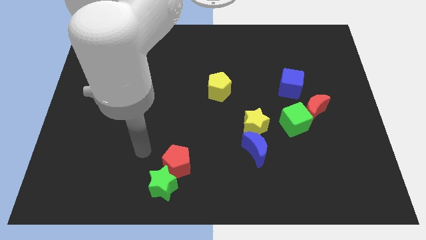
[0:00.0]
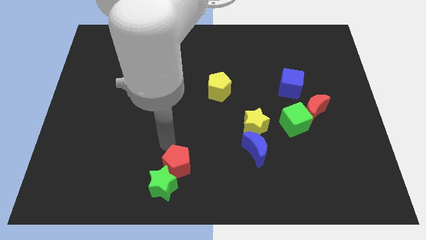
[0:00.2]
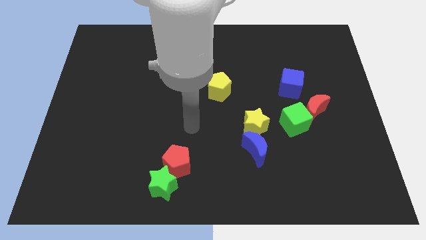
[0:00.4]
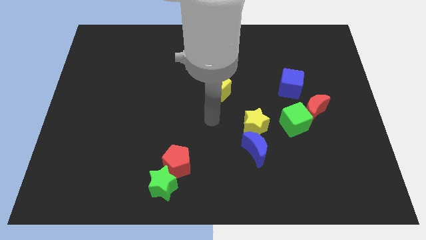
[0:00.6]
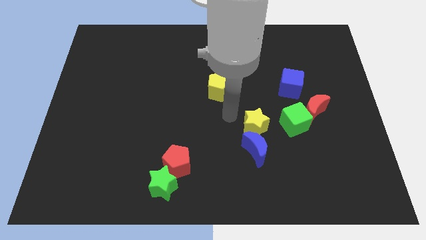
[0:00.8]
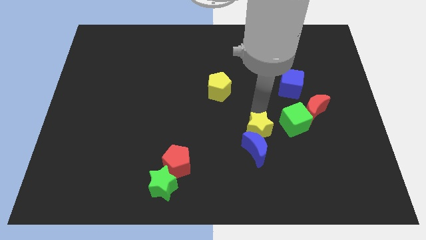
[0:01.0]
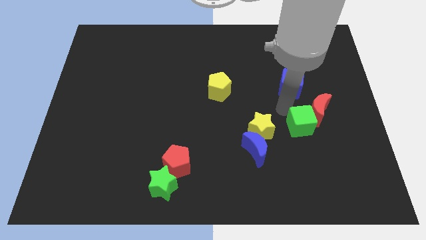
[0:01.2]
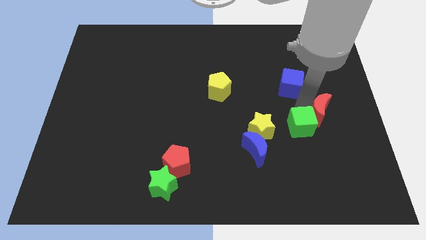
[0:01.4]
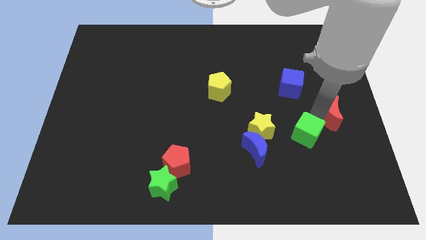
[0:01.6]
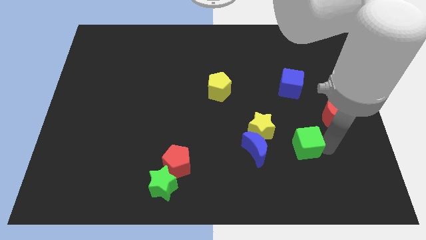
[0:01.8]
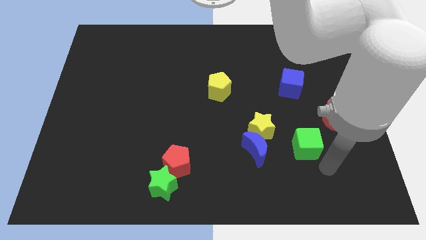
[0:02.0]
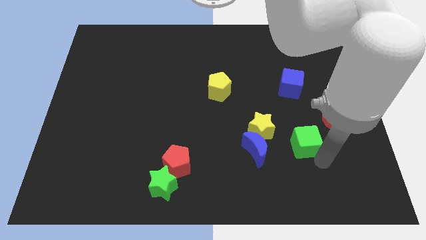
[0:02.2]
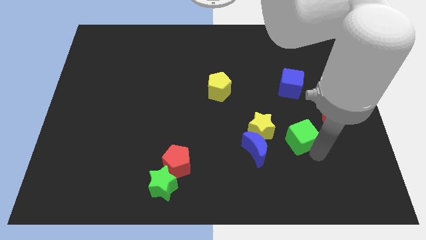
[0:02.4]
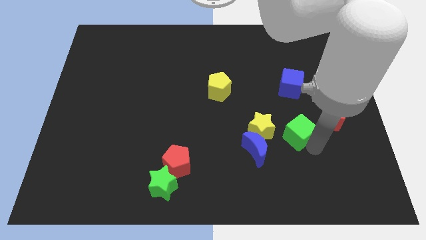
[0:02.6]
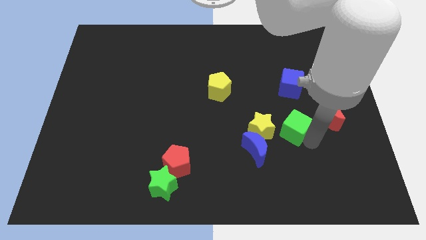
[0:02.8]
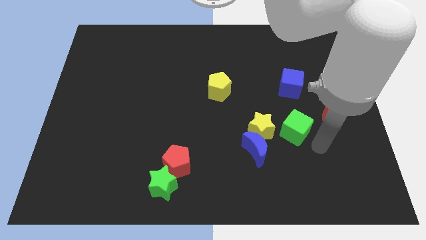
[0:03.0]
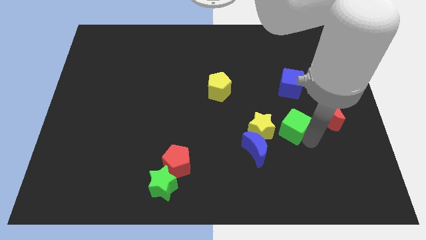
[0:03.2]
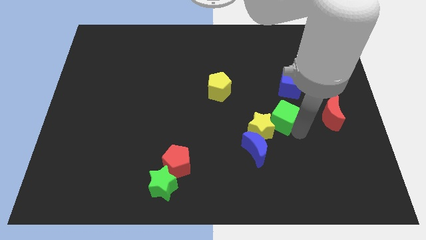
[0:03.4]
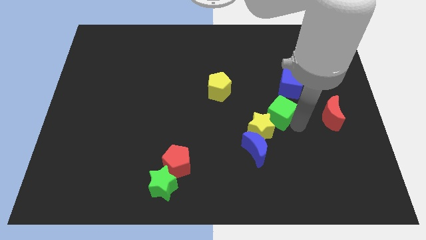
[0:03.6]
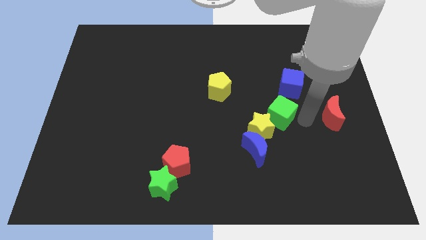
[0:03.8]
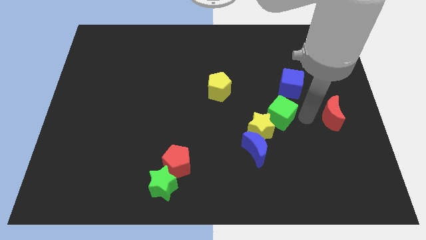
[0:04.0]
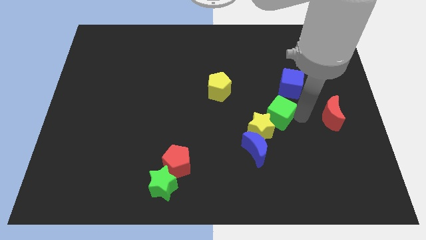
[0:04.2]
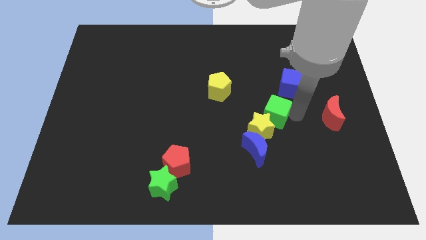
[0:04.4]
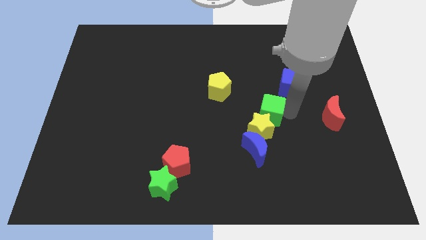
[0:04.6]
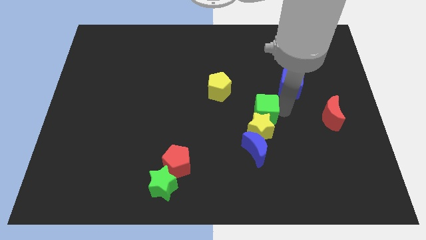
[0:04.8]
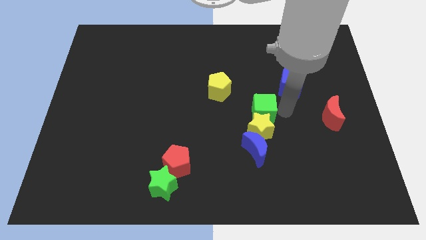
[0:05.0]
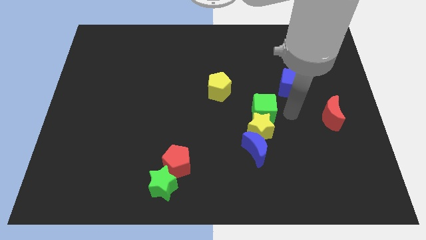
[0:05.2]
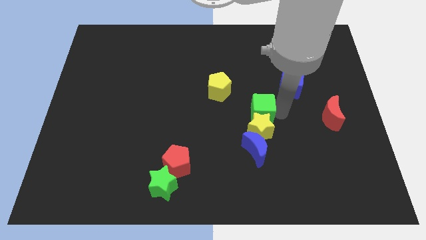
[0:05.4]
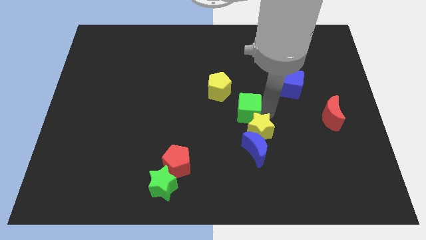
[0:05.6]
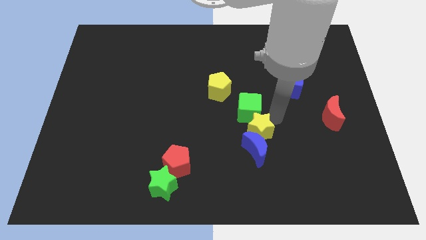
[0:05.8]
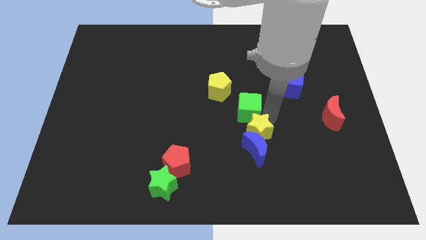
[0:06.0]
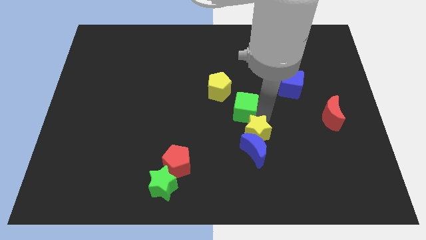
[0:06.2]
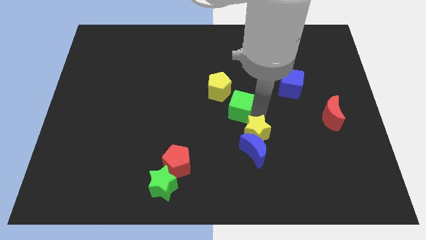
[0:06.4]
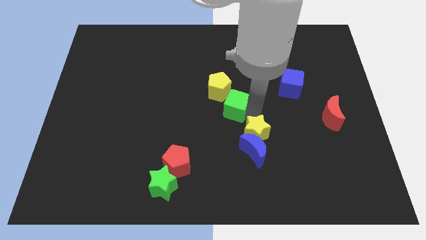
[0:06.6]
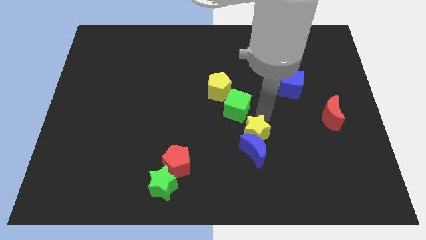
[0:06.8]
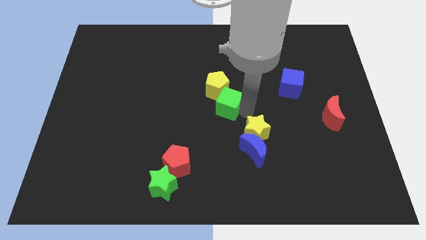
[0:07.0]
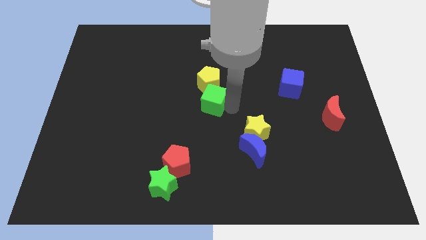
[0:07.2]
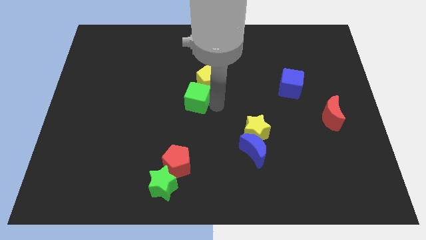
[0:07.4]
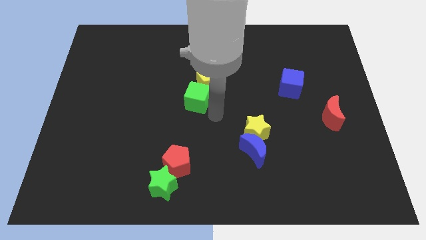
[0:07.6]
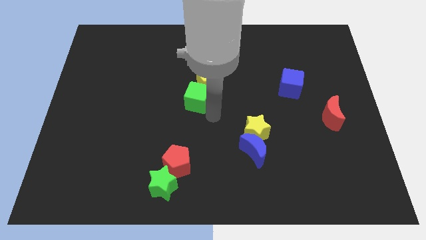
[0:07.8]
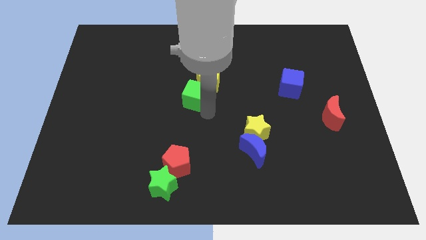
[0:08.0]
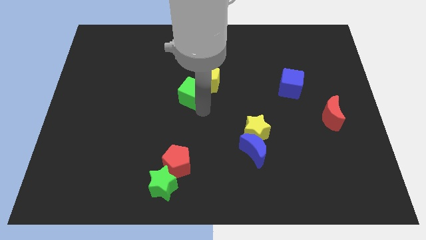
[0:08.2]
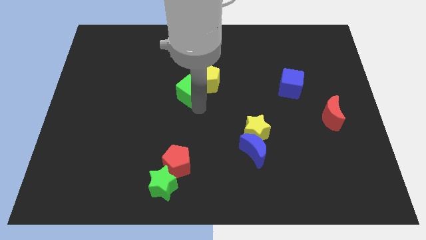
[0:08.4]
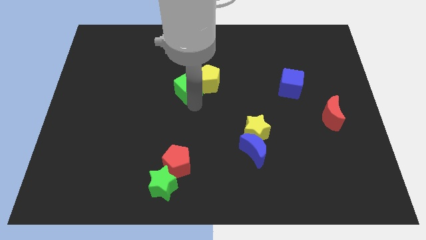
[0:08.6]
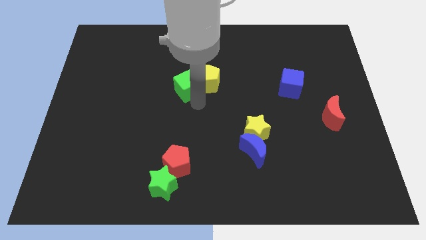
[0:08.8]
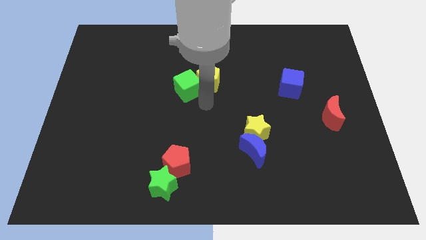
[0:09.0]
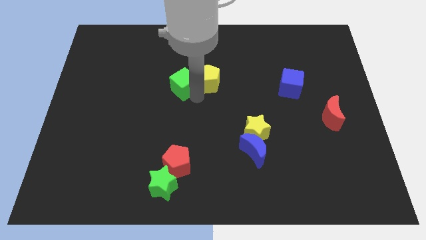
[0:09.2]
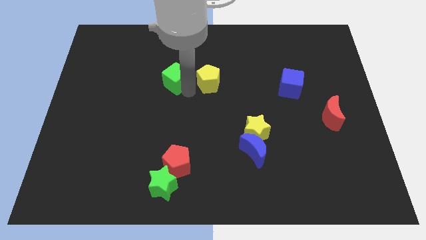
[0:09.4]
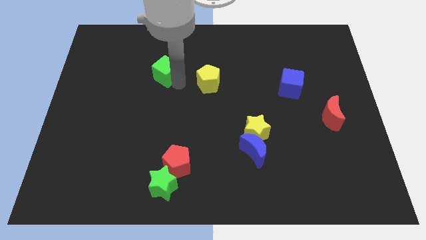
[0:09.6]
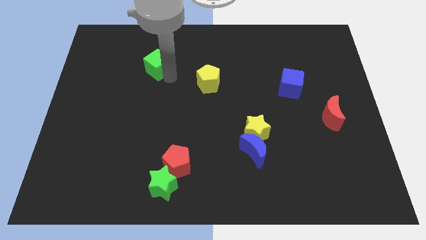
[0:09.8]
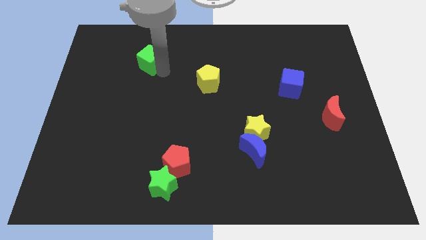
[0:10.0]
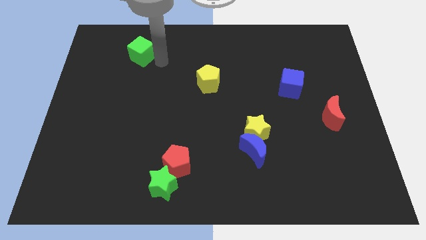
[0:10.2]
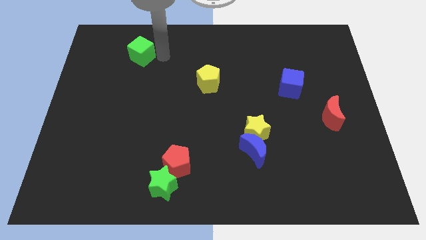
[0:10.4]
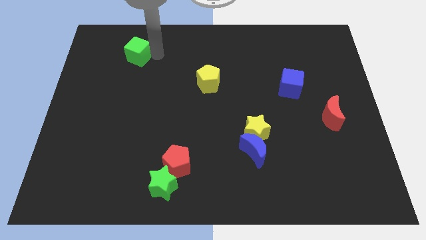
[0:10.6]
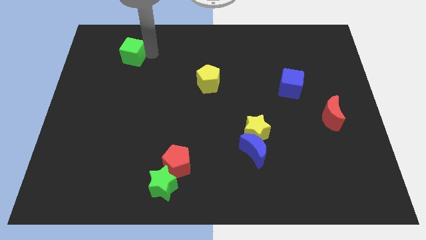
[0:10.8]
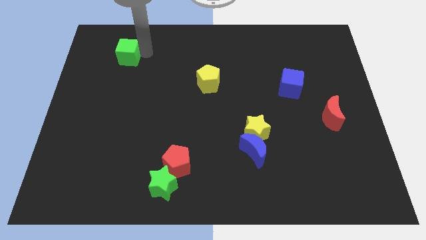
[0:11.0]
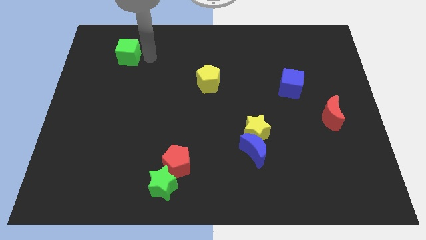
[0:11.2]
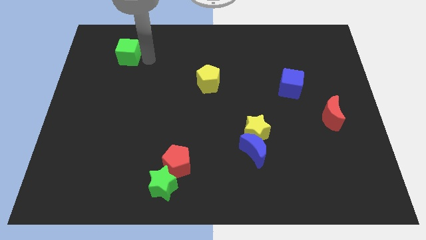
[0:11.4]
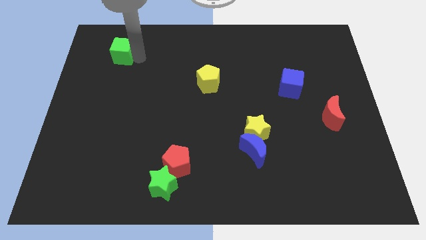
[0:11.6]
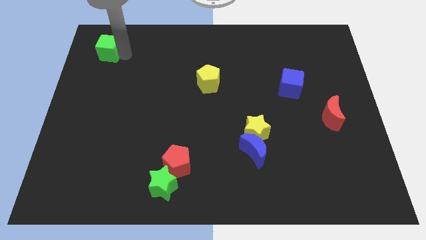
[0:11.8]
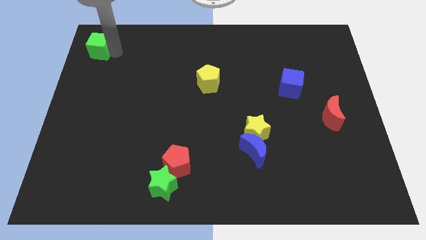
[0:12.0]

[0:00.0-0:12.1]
slide the green cube to the top left of the board

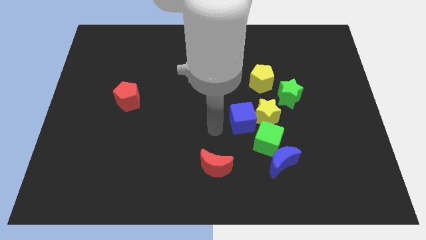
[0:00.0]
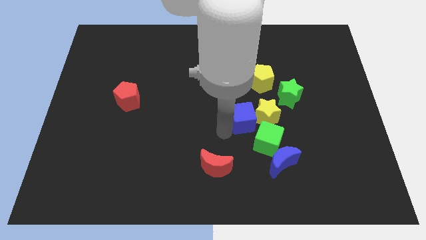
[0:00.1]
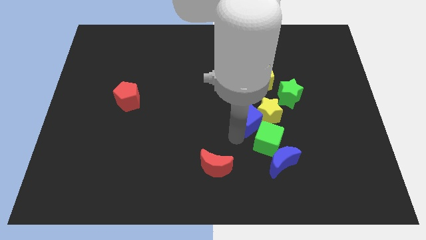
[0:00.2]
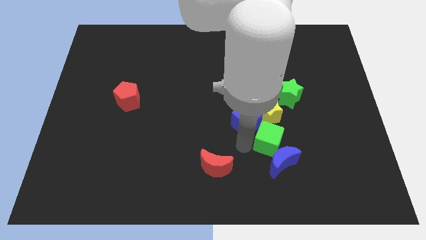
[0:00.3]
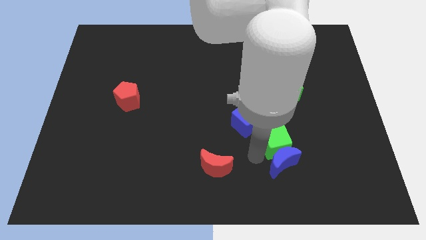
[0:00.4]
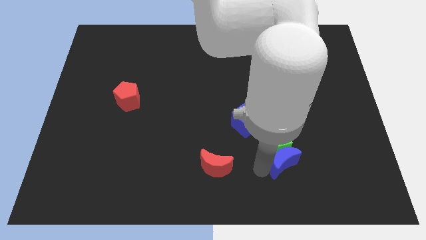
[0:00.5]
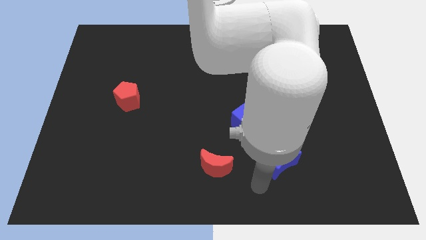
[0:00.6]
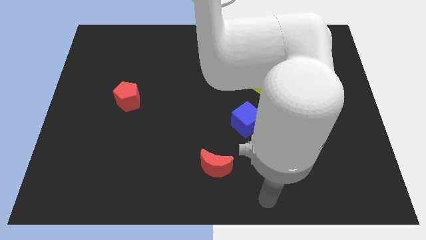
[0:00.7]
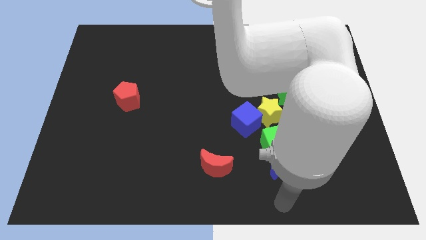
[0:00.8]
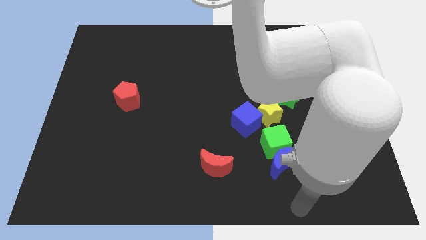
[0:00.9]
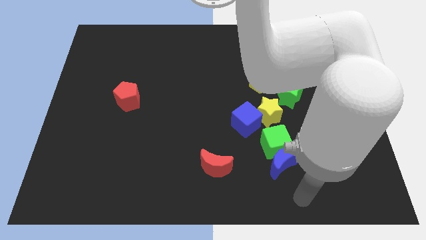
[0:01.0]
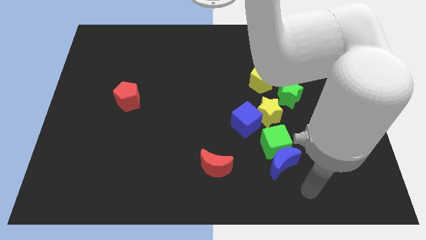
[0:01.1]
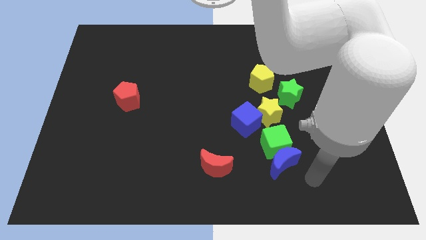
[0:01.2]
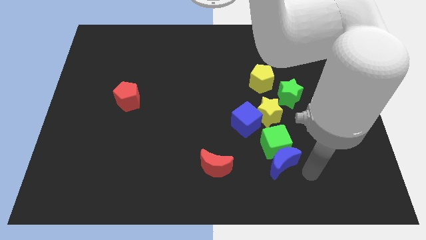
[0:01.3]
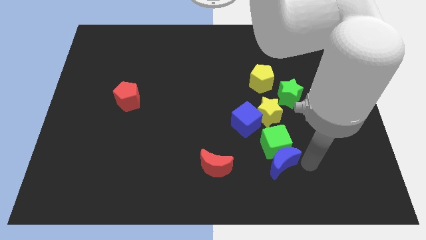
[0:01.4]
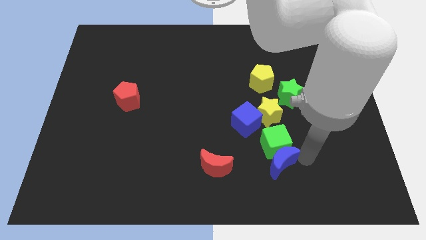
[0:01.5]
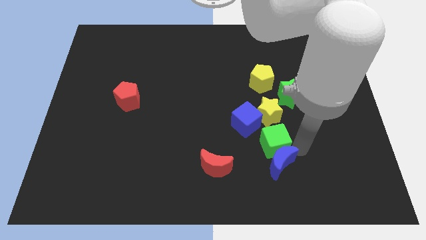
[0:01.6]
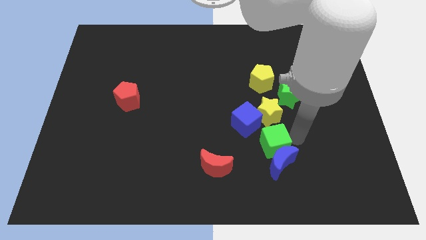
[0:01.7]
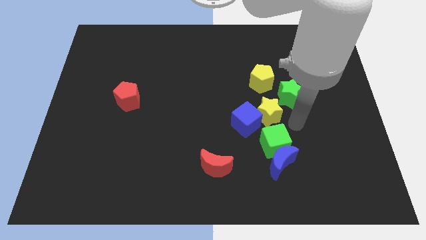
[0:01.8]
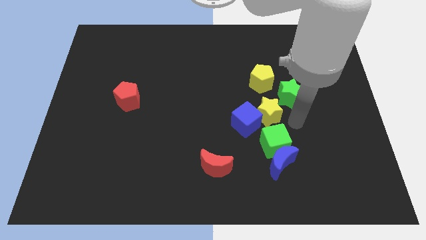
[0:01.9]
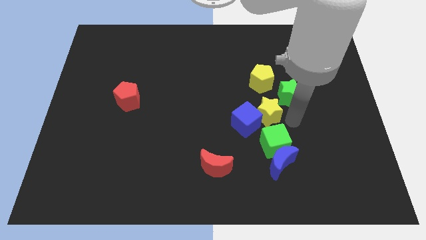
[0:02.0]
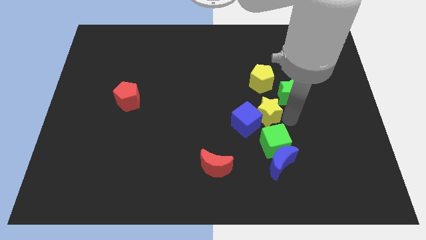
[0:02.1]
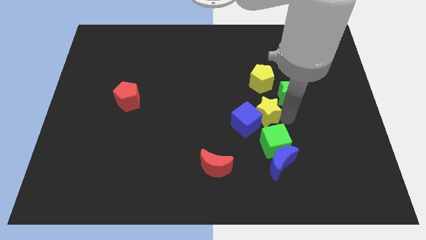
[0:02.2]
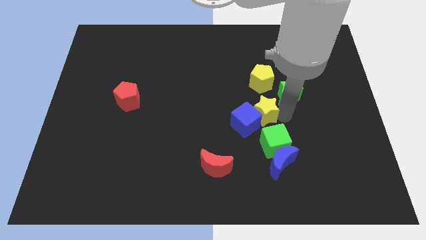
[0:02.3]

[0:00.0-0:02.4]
push the yellow star to the center
